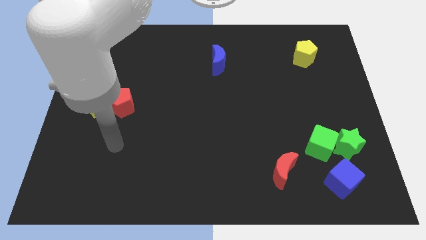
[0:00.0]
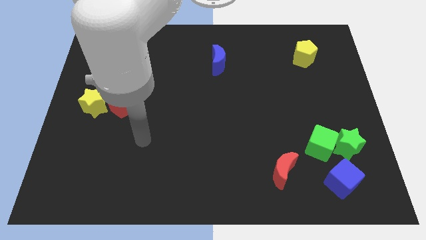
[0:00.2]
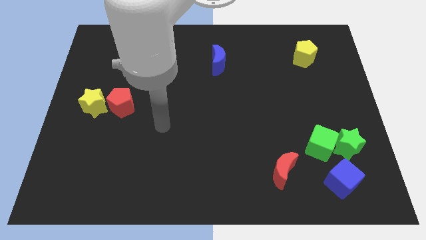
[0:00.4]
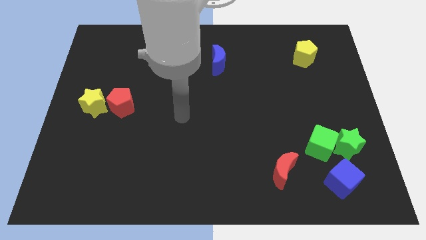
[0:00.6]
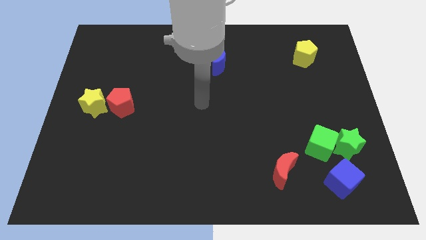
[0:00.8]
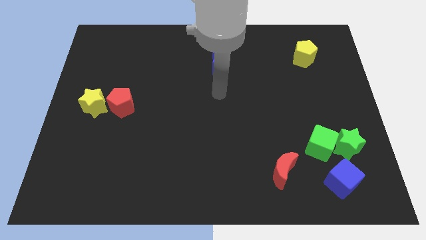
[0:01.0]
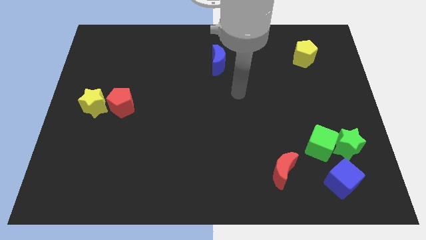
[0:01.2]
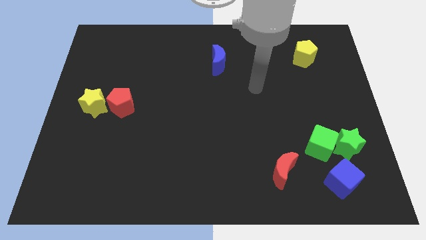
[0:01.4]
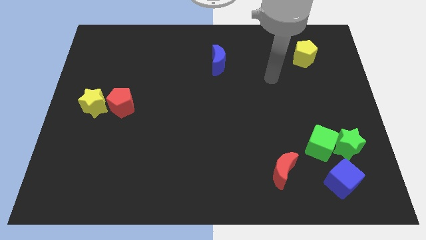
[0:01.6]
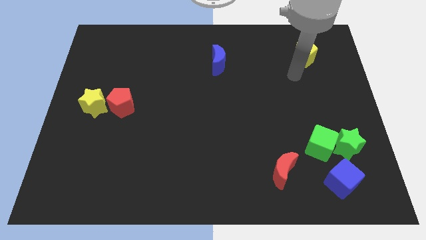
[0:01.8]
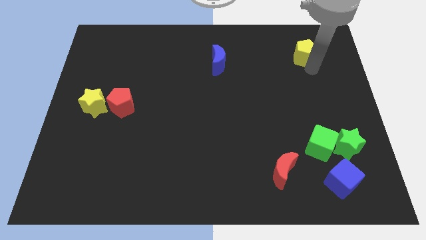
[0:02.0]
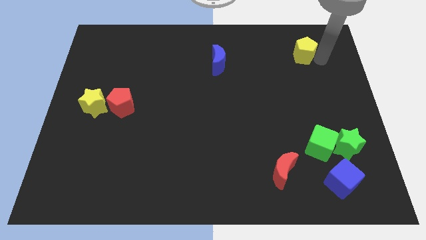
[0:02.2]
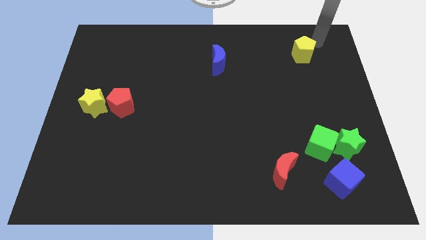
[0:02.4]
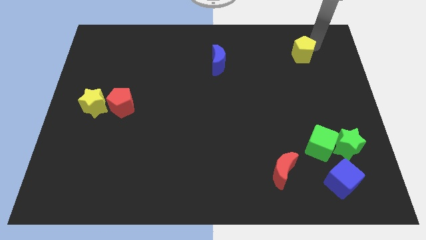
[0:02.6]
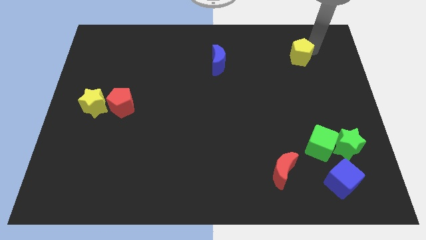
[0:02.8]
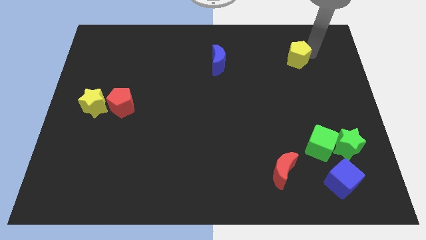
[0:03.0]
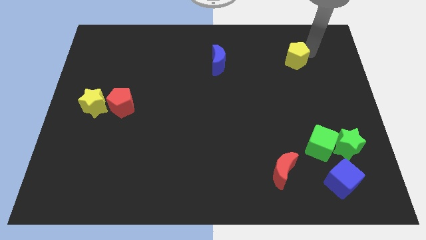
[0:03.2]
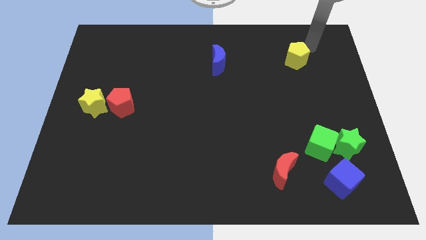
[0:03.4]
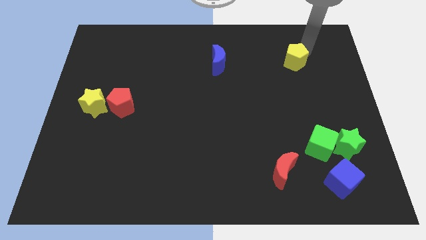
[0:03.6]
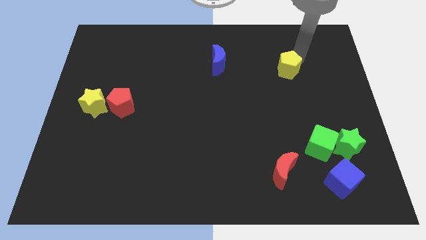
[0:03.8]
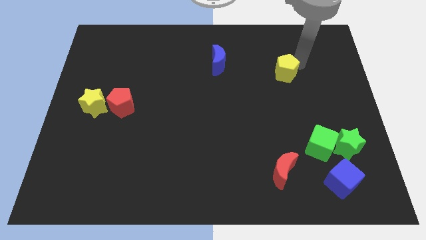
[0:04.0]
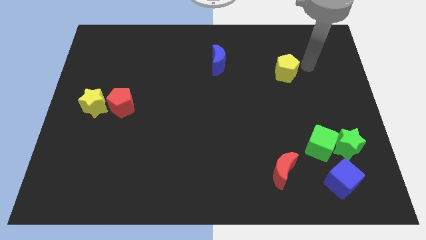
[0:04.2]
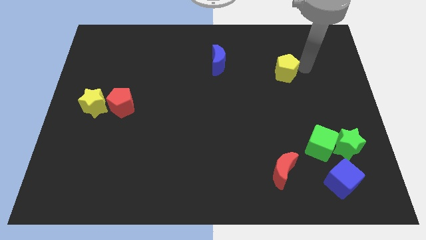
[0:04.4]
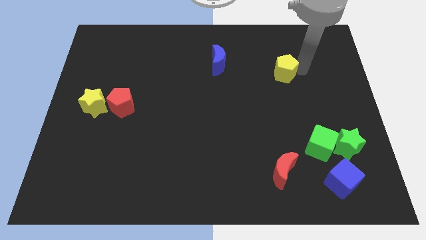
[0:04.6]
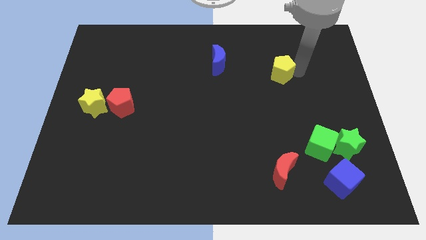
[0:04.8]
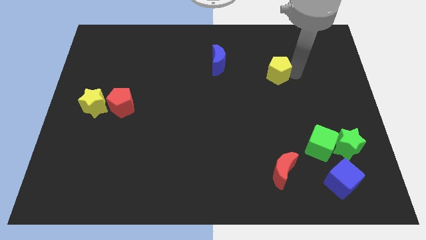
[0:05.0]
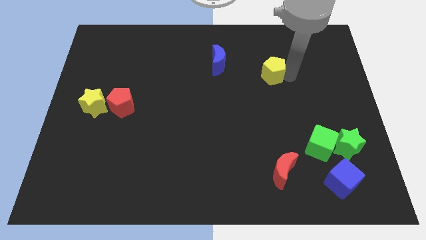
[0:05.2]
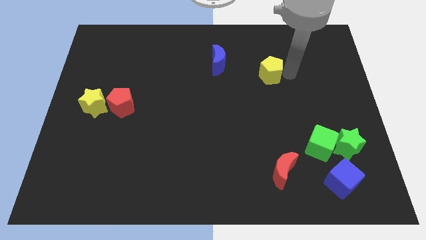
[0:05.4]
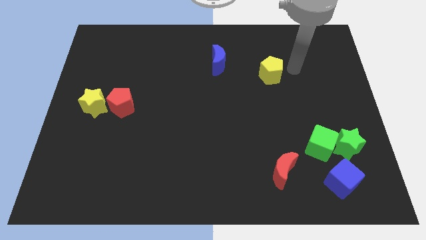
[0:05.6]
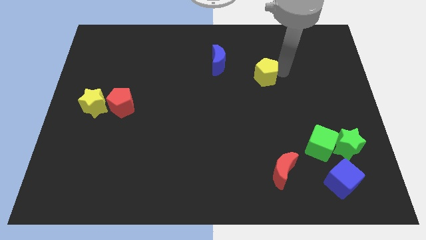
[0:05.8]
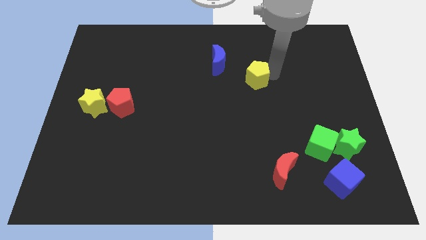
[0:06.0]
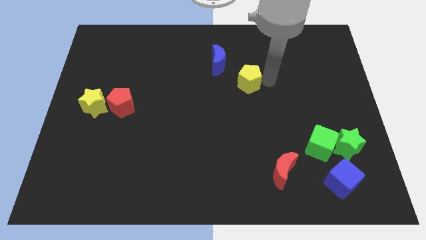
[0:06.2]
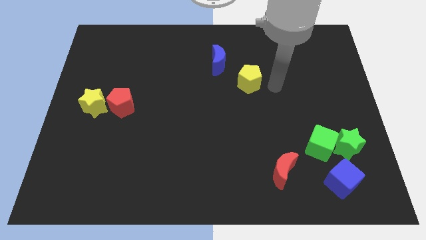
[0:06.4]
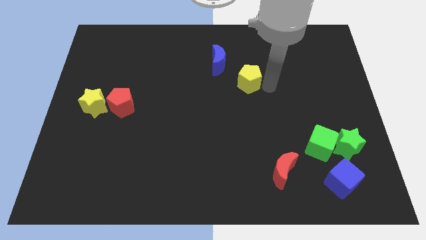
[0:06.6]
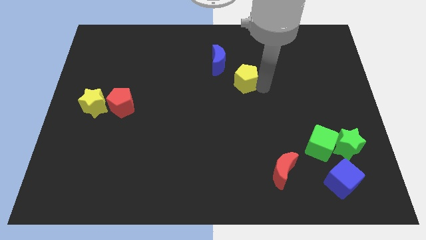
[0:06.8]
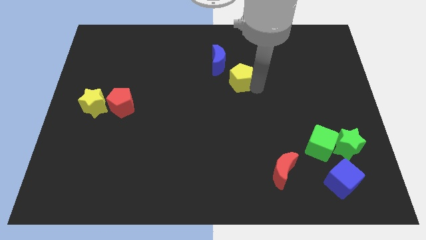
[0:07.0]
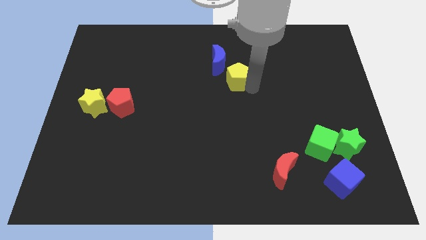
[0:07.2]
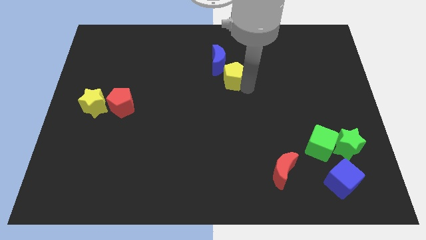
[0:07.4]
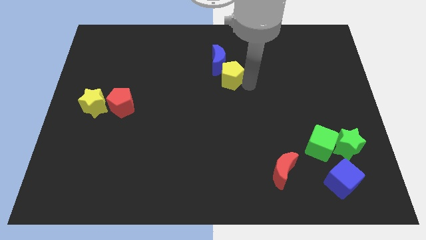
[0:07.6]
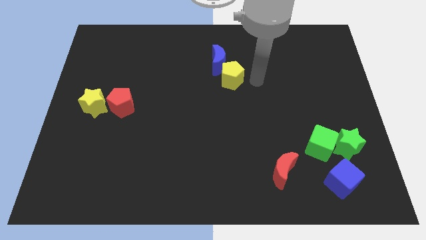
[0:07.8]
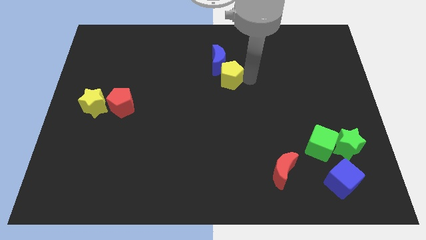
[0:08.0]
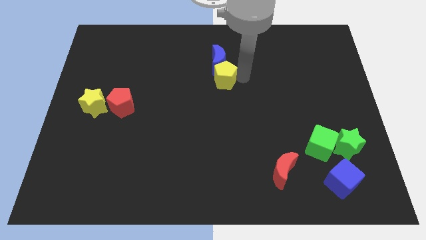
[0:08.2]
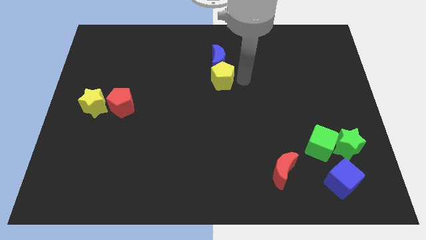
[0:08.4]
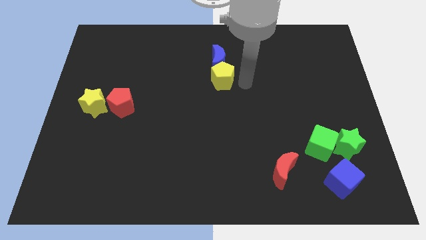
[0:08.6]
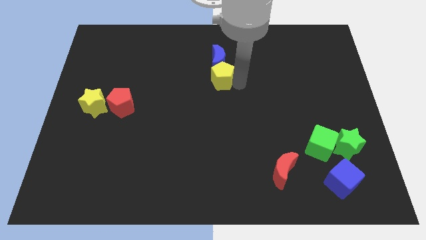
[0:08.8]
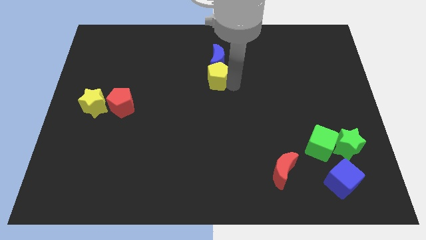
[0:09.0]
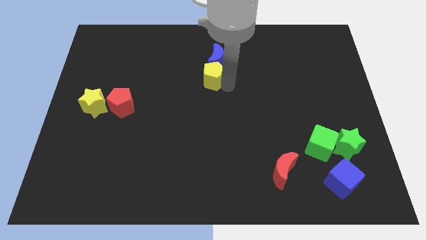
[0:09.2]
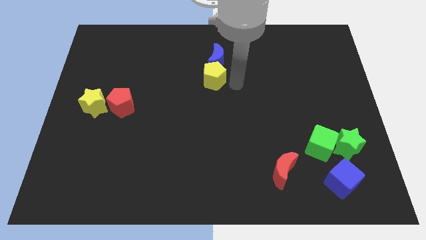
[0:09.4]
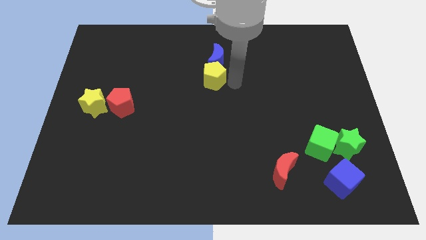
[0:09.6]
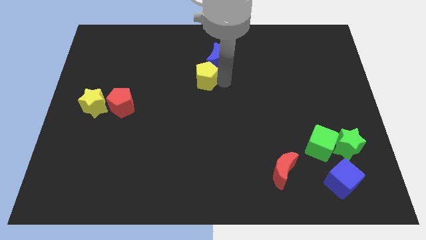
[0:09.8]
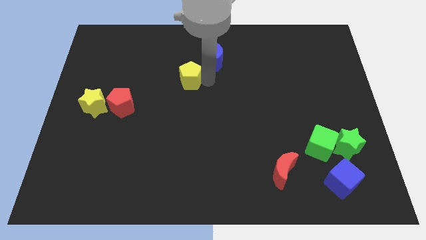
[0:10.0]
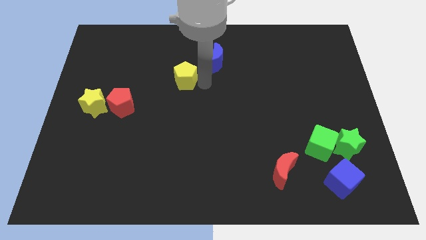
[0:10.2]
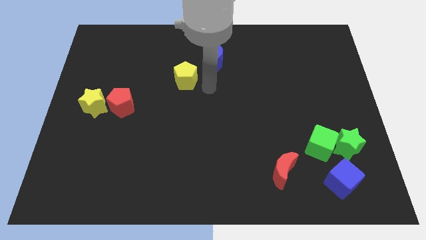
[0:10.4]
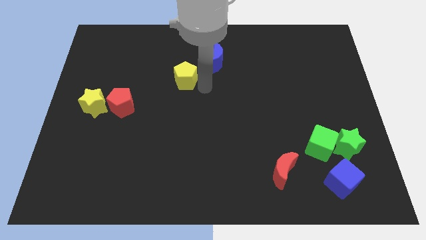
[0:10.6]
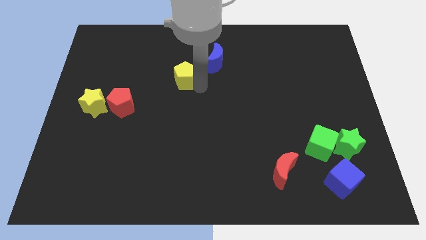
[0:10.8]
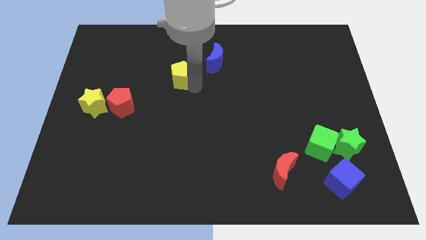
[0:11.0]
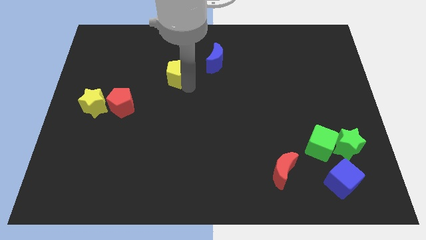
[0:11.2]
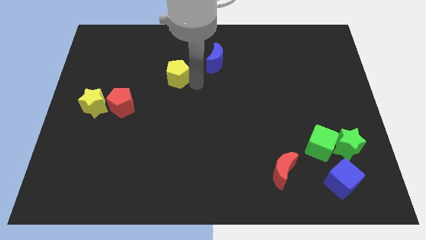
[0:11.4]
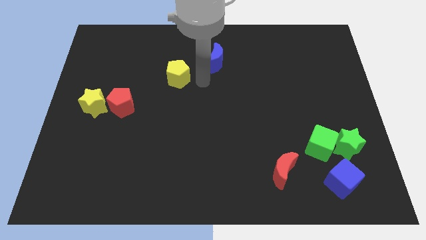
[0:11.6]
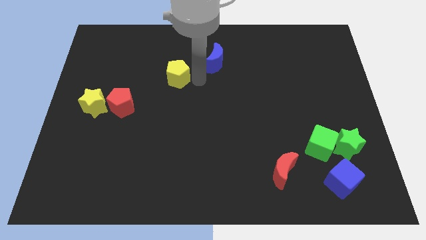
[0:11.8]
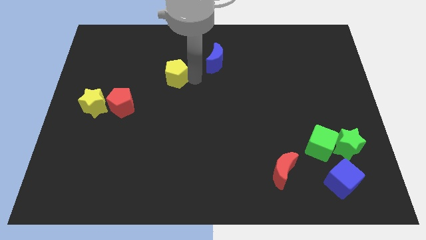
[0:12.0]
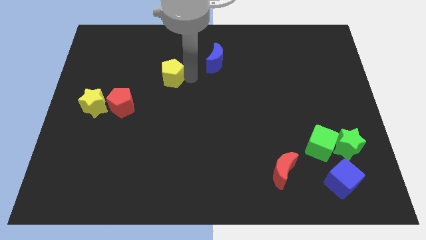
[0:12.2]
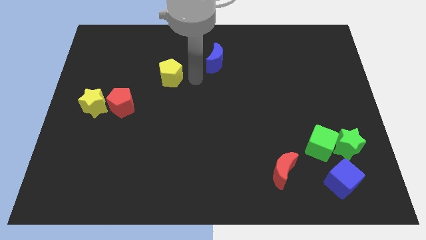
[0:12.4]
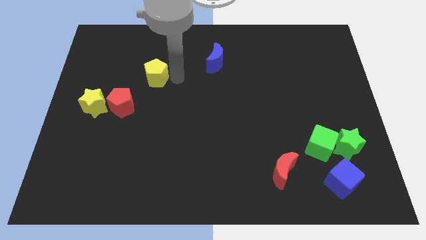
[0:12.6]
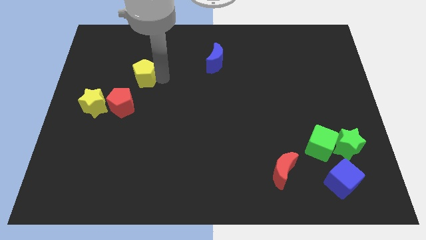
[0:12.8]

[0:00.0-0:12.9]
put the yellow pentagon to the top side of the red pentagon
